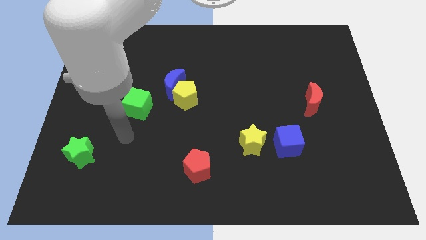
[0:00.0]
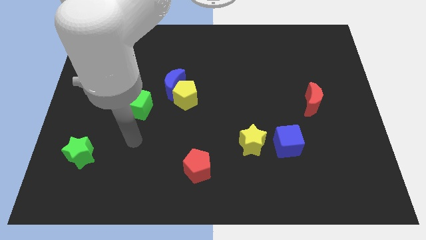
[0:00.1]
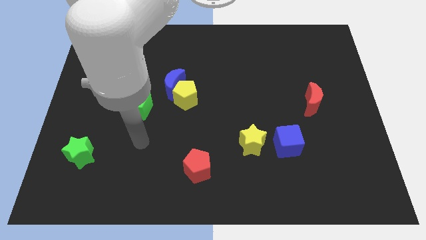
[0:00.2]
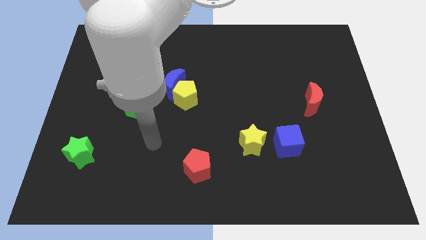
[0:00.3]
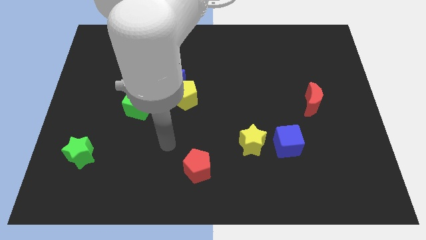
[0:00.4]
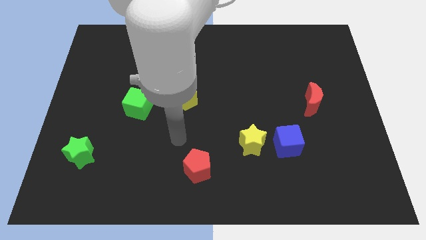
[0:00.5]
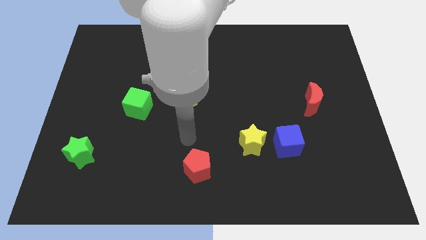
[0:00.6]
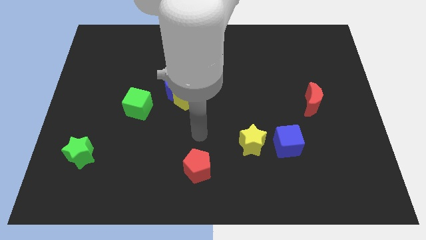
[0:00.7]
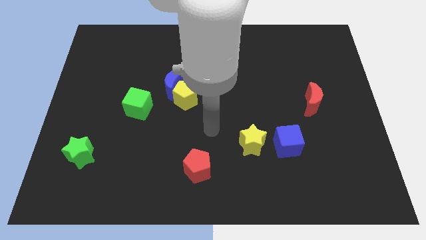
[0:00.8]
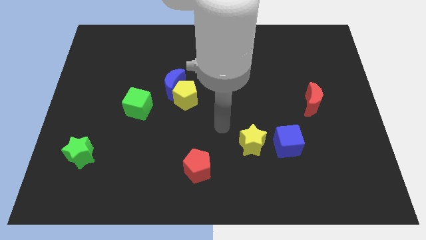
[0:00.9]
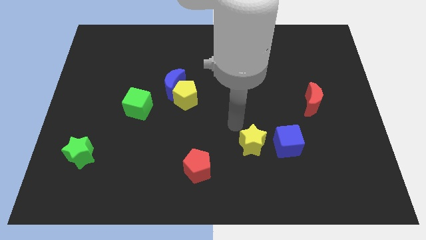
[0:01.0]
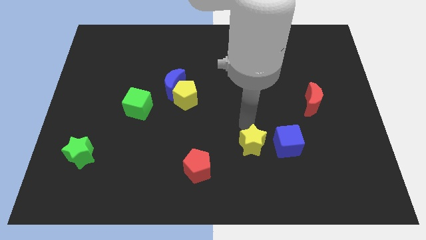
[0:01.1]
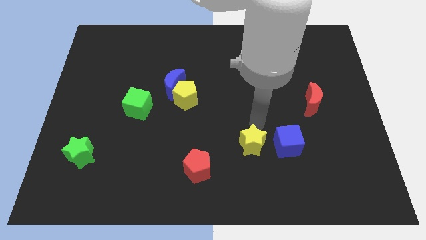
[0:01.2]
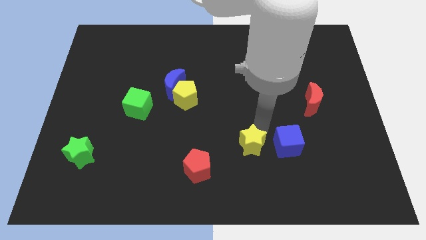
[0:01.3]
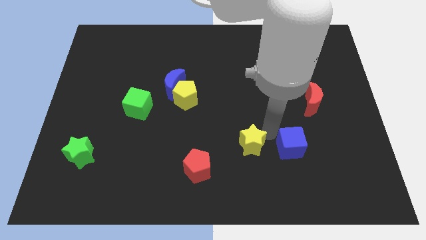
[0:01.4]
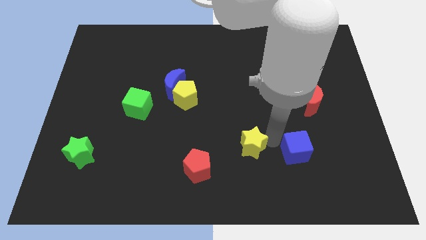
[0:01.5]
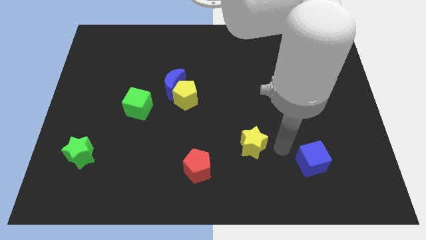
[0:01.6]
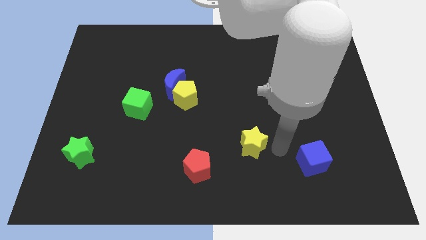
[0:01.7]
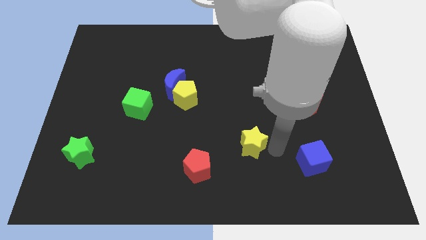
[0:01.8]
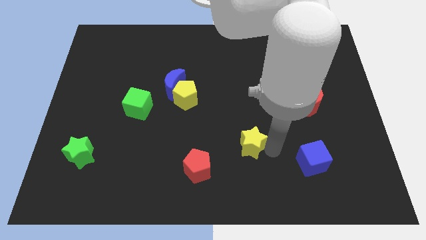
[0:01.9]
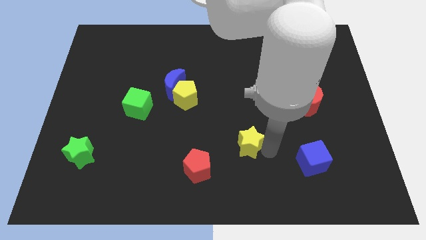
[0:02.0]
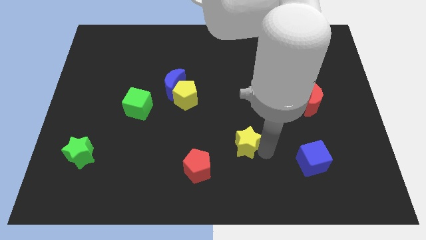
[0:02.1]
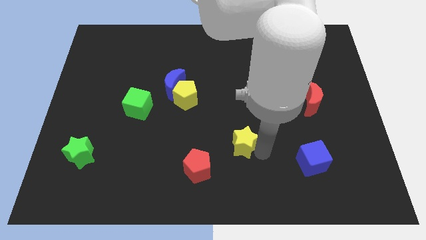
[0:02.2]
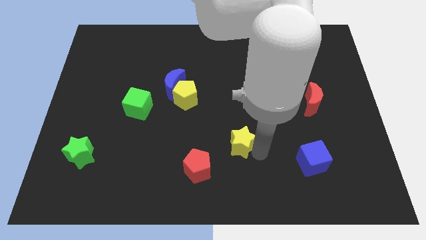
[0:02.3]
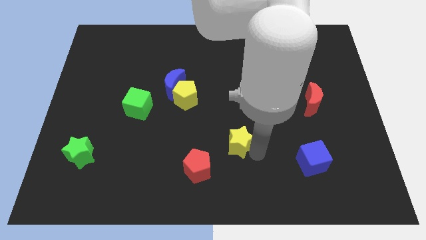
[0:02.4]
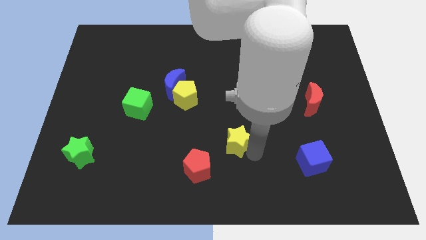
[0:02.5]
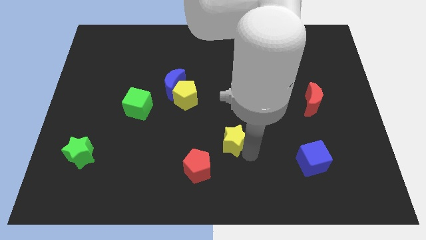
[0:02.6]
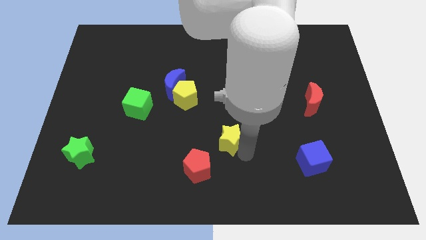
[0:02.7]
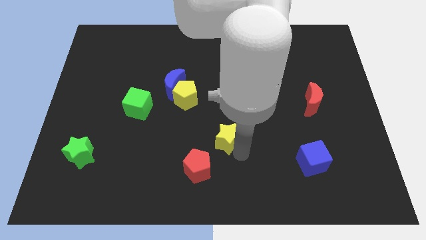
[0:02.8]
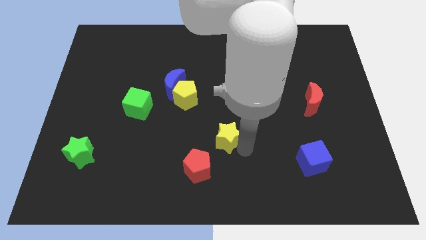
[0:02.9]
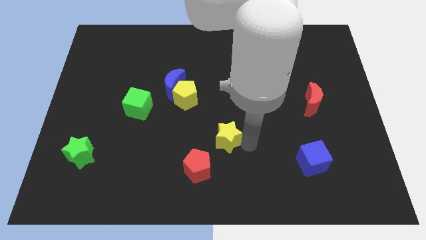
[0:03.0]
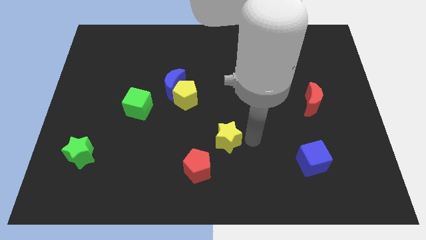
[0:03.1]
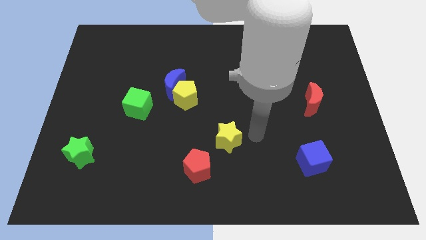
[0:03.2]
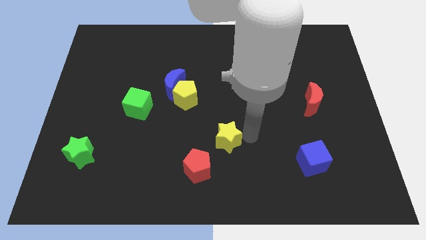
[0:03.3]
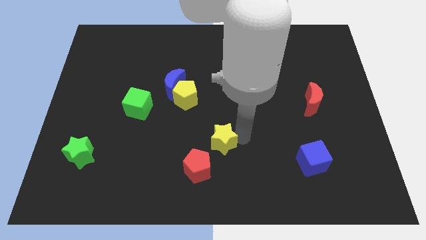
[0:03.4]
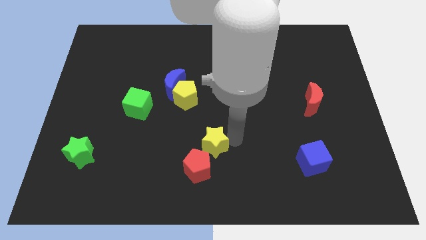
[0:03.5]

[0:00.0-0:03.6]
push the yellow star a little bit to the left

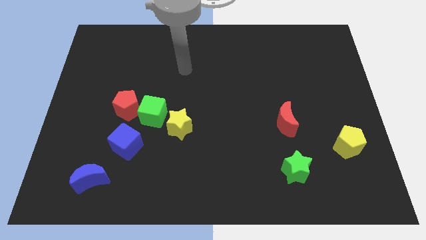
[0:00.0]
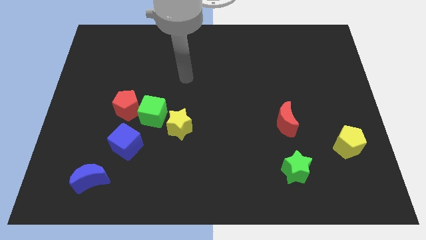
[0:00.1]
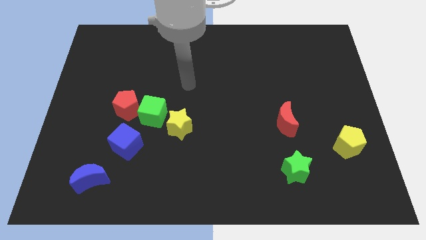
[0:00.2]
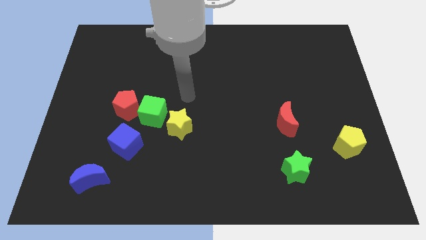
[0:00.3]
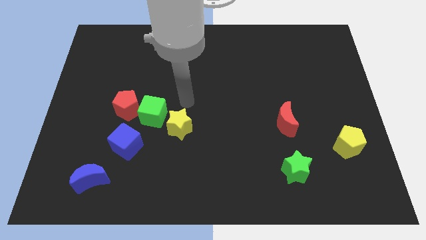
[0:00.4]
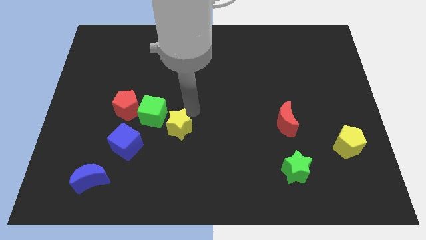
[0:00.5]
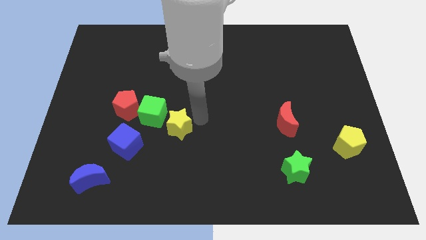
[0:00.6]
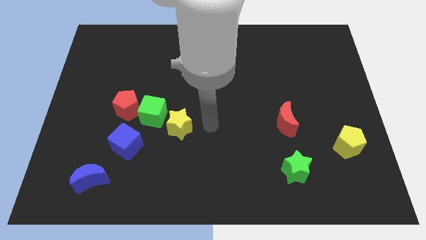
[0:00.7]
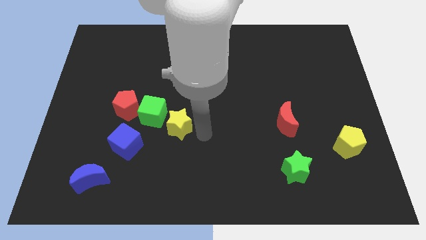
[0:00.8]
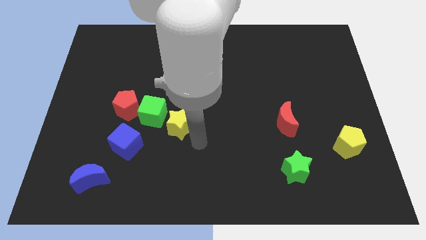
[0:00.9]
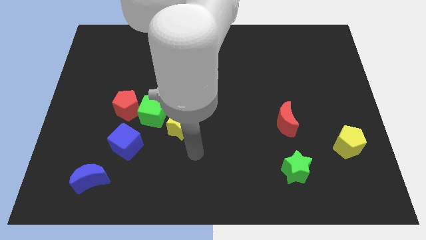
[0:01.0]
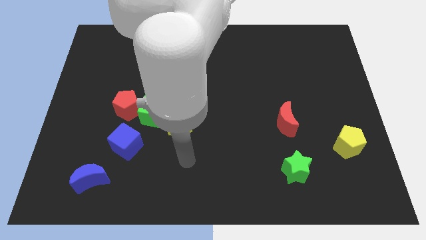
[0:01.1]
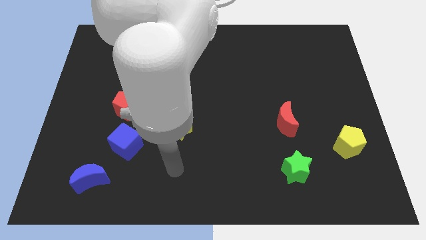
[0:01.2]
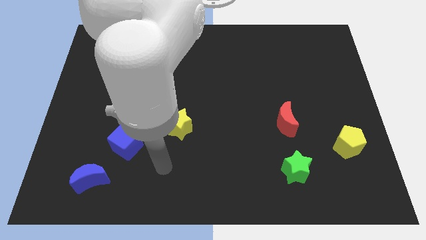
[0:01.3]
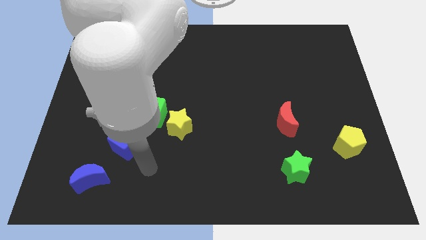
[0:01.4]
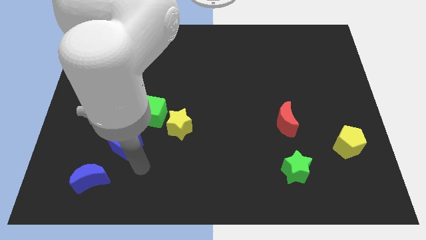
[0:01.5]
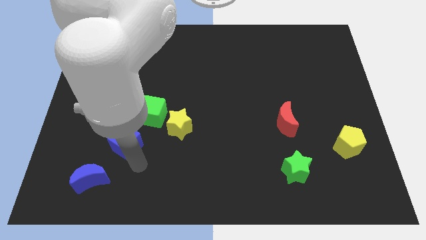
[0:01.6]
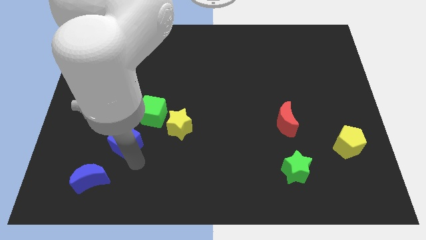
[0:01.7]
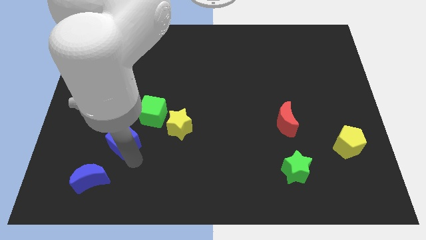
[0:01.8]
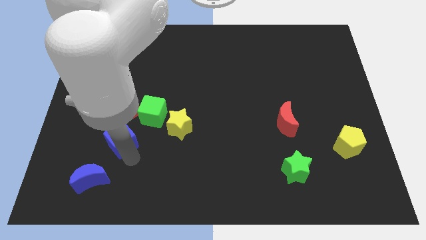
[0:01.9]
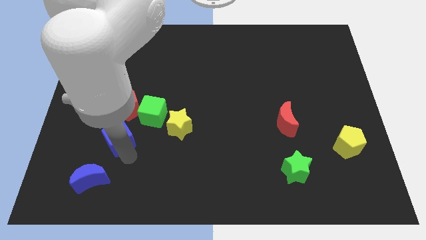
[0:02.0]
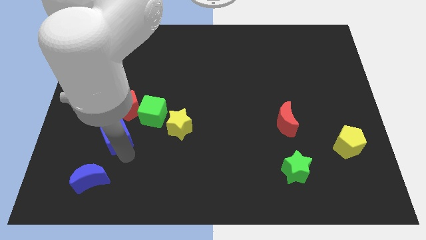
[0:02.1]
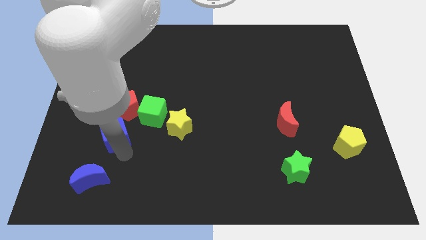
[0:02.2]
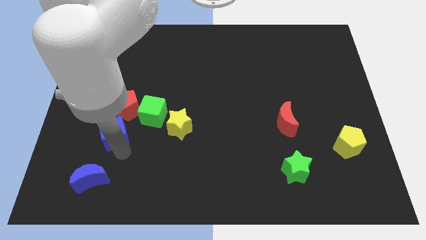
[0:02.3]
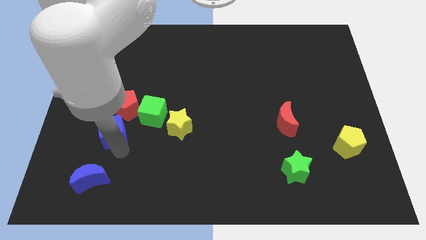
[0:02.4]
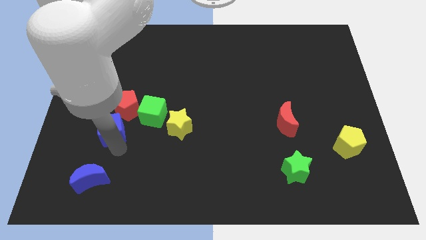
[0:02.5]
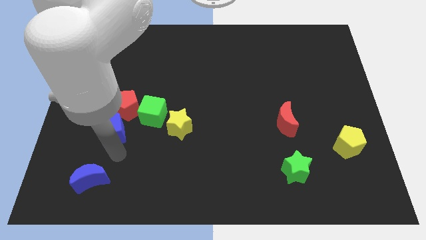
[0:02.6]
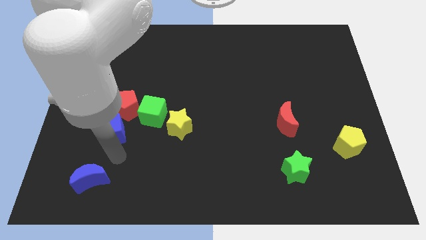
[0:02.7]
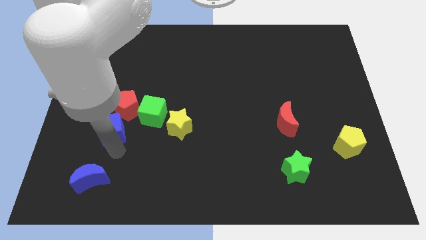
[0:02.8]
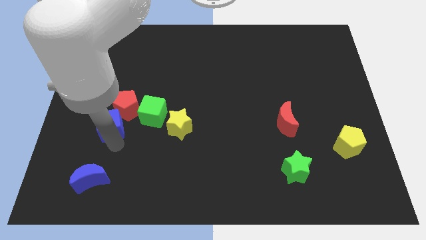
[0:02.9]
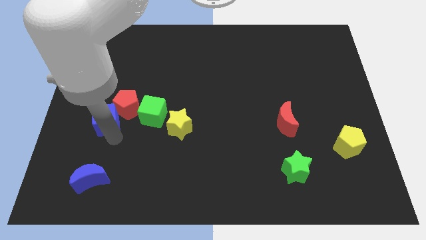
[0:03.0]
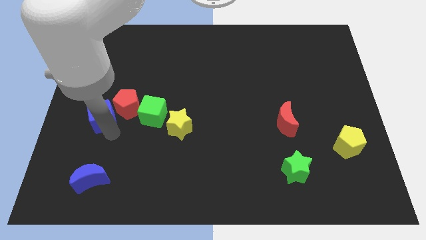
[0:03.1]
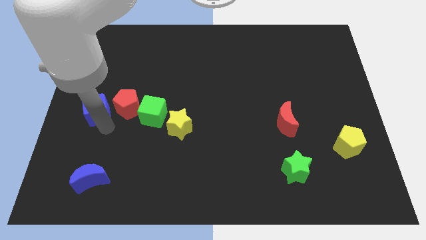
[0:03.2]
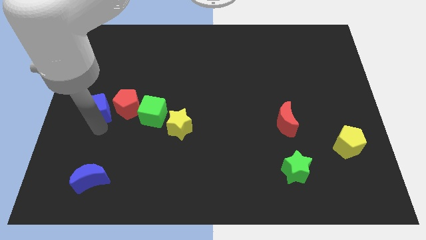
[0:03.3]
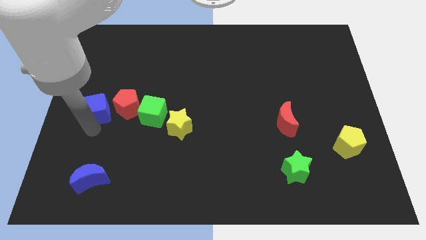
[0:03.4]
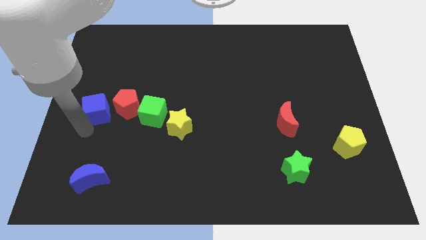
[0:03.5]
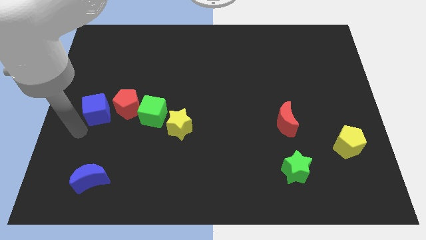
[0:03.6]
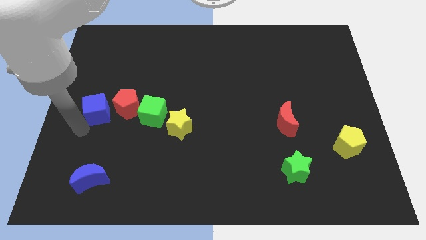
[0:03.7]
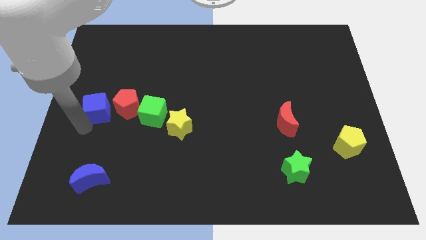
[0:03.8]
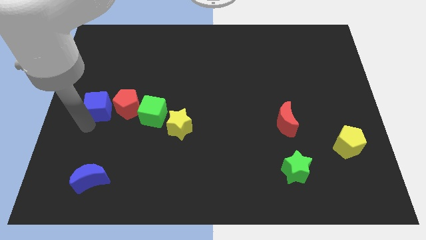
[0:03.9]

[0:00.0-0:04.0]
slightly push the blue cube upwards

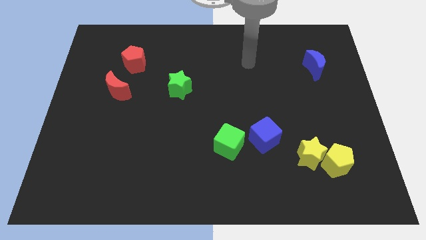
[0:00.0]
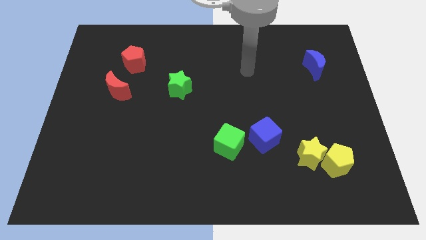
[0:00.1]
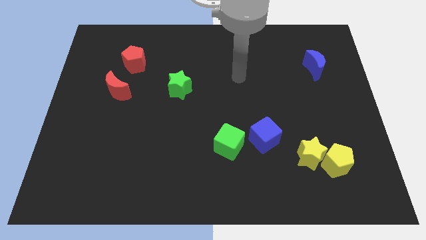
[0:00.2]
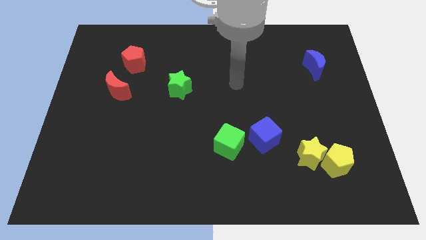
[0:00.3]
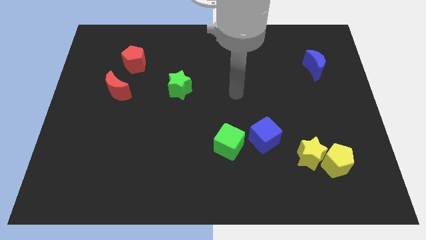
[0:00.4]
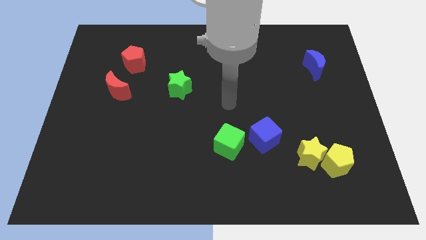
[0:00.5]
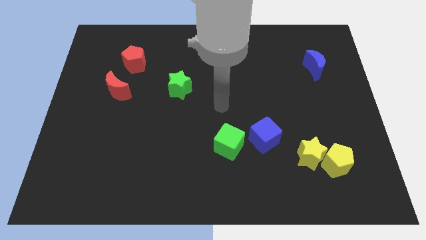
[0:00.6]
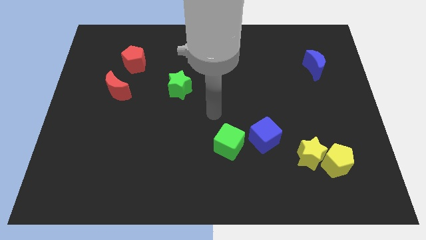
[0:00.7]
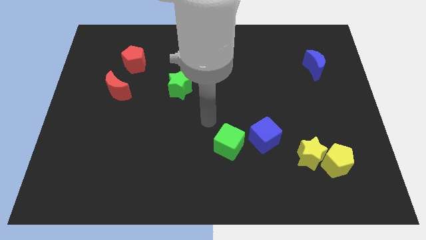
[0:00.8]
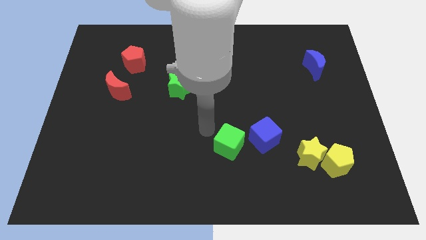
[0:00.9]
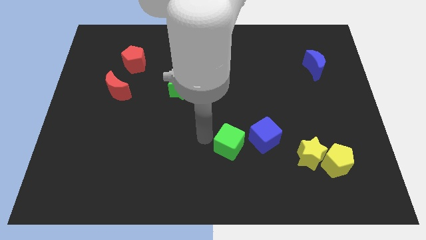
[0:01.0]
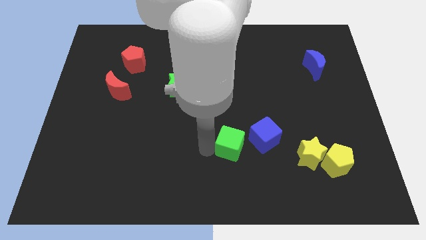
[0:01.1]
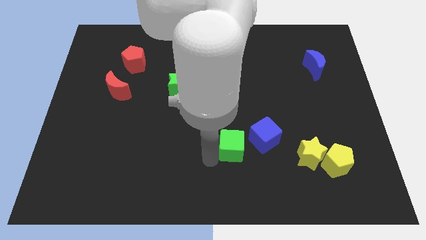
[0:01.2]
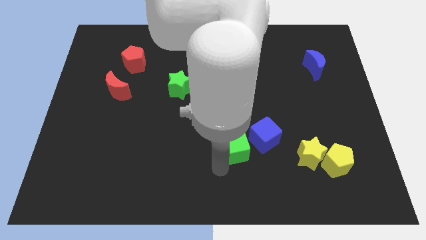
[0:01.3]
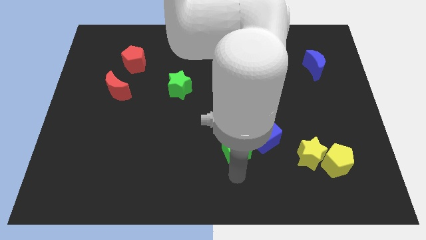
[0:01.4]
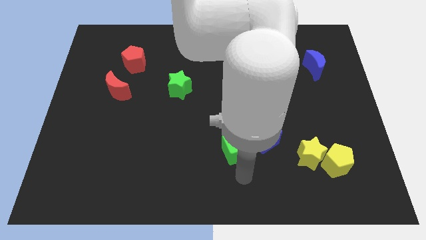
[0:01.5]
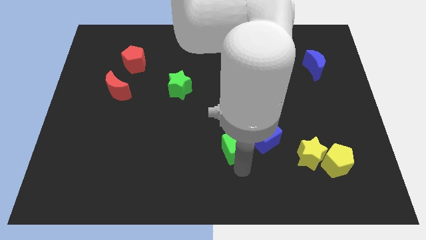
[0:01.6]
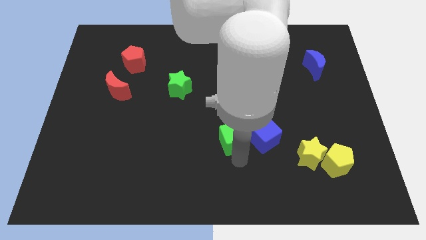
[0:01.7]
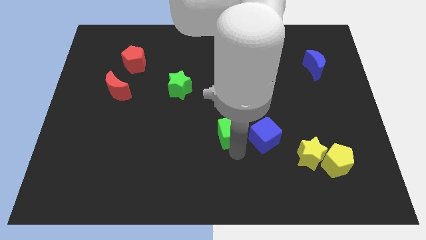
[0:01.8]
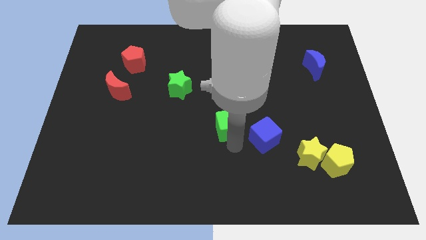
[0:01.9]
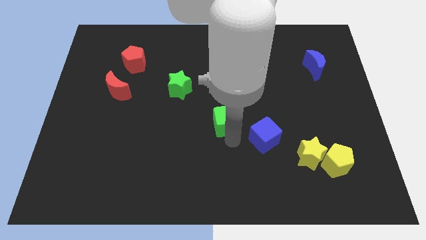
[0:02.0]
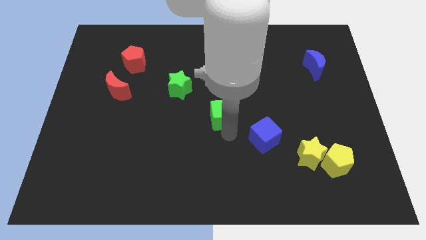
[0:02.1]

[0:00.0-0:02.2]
slide the green cube a little upwards
